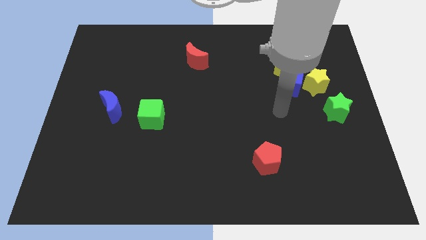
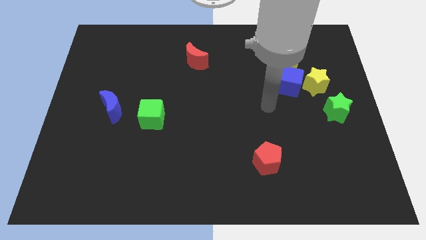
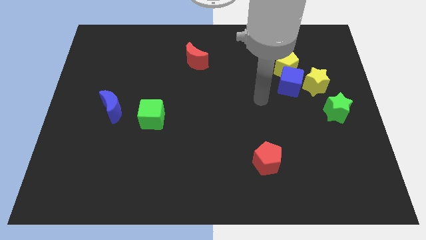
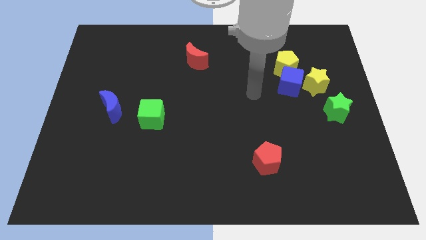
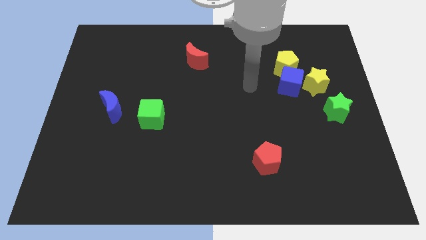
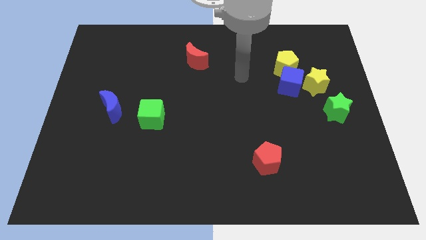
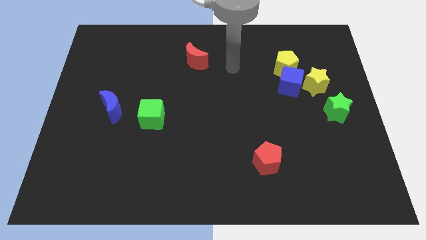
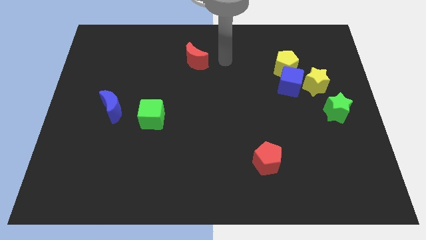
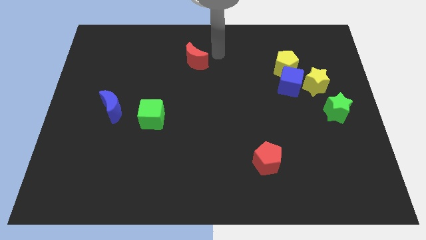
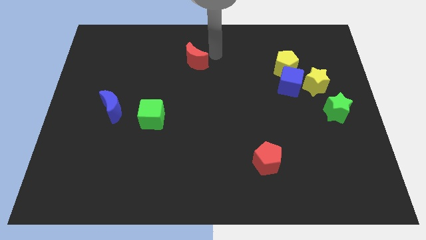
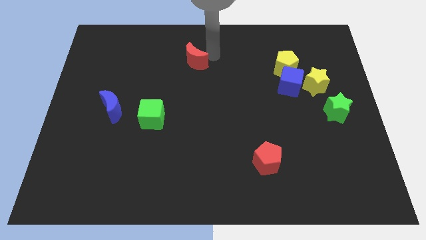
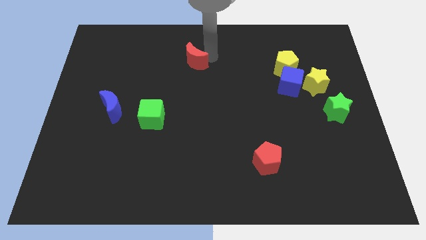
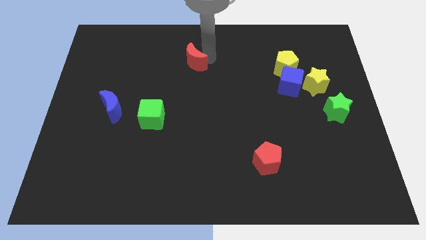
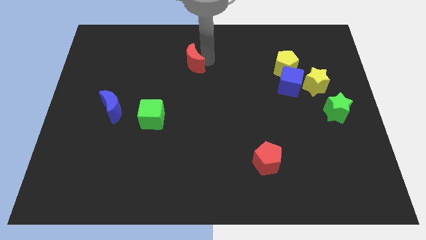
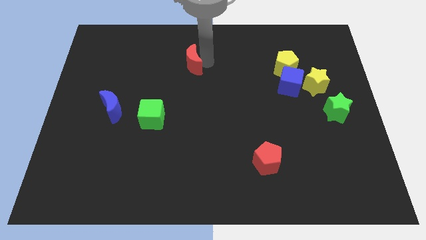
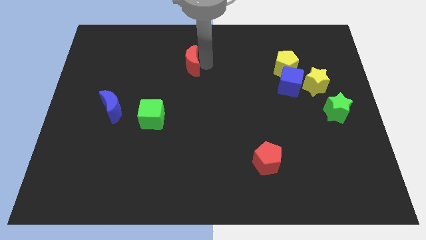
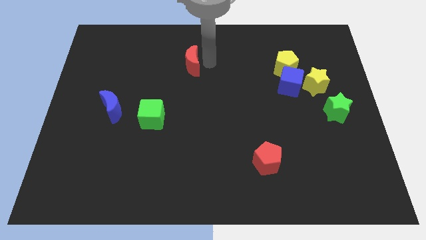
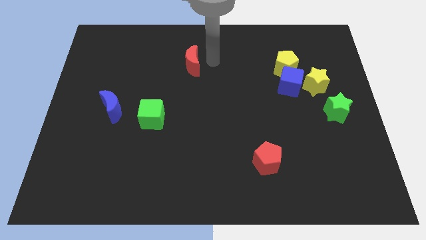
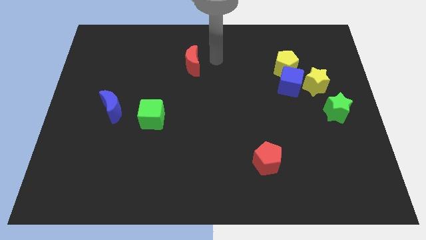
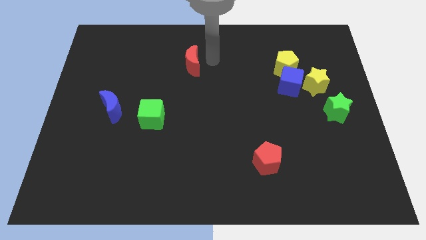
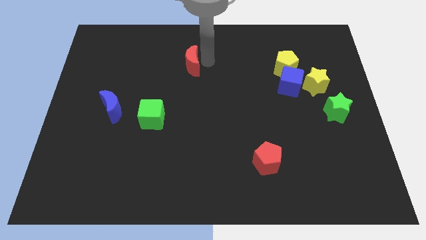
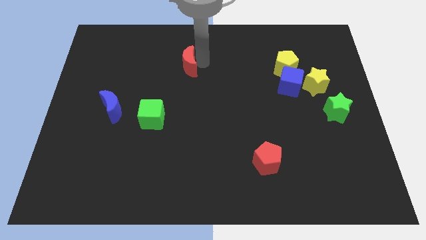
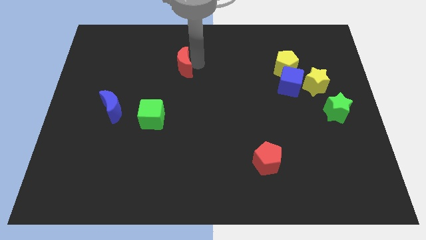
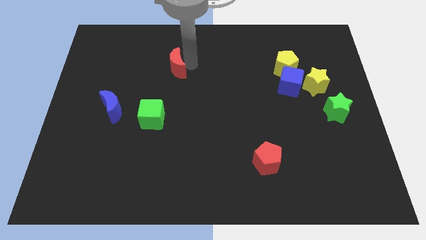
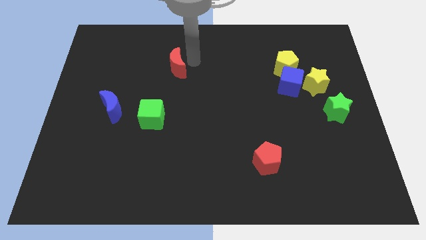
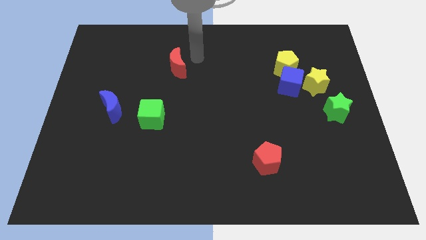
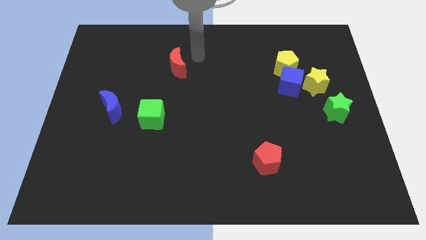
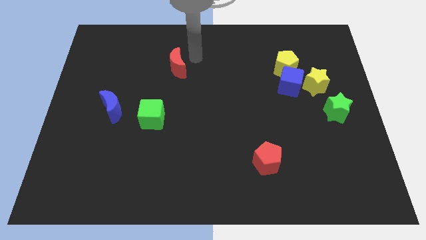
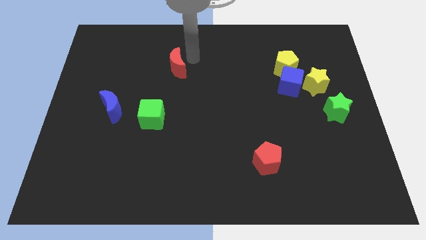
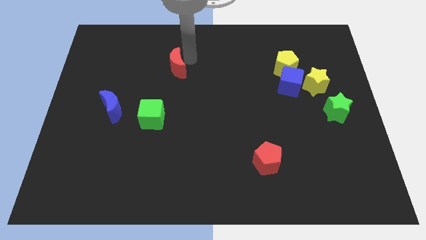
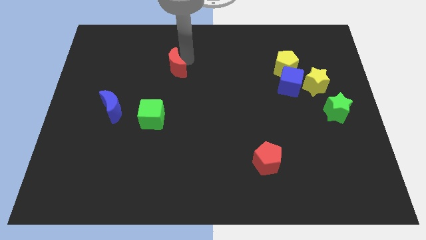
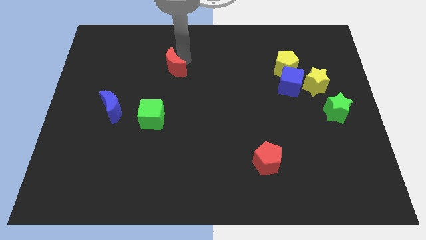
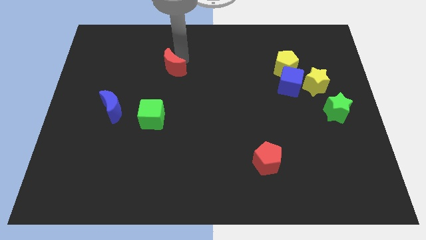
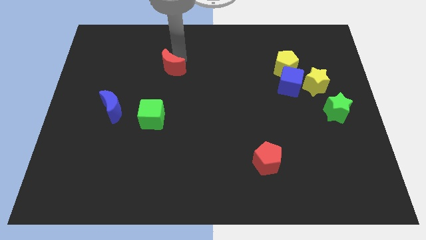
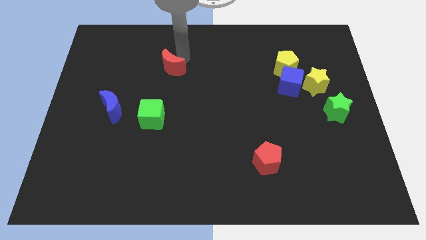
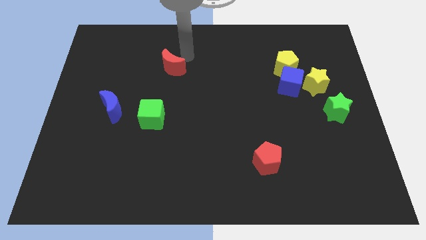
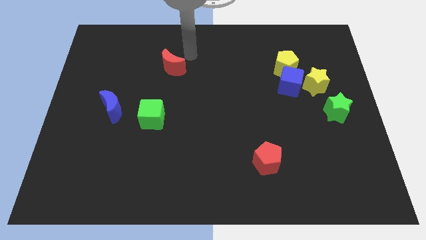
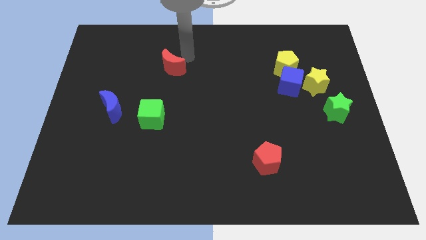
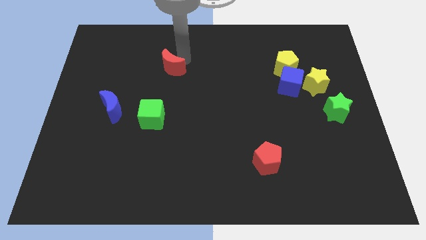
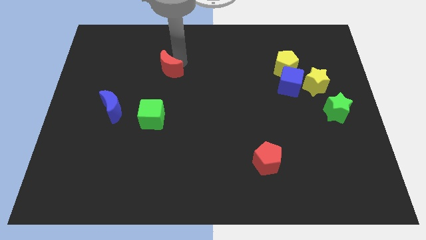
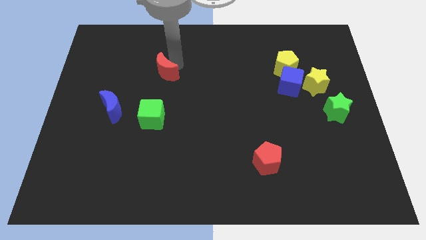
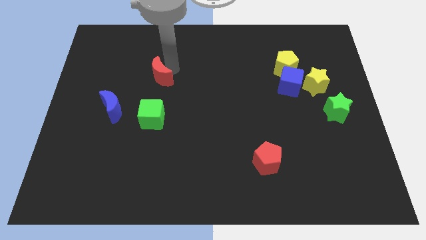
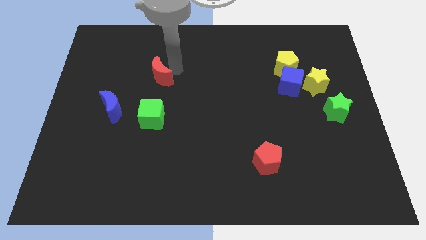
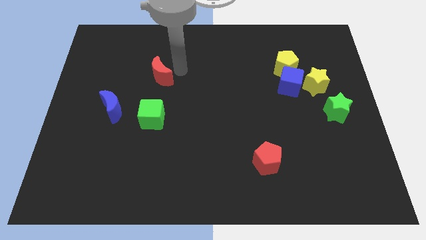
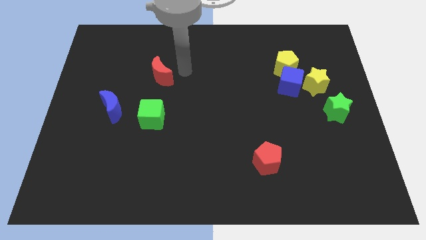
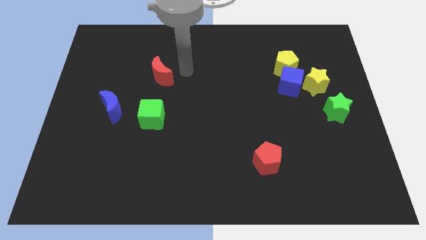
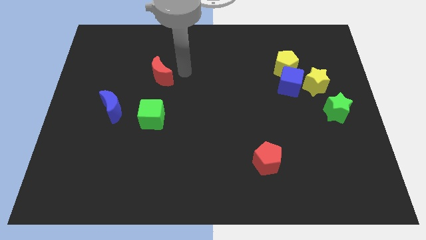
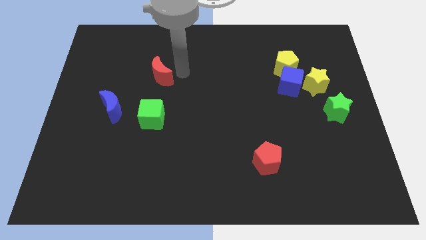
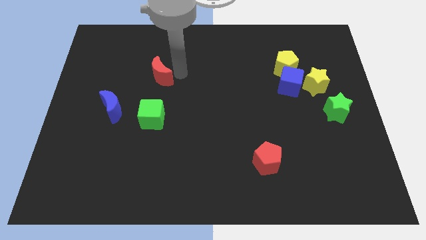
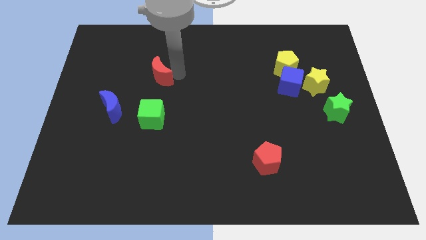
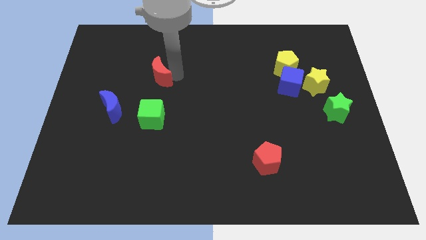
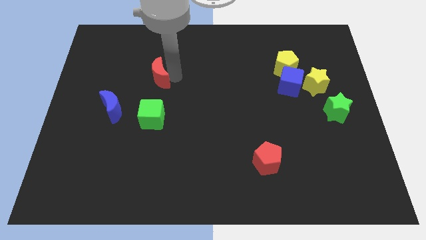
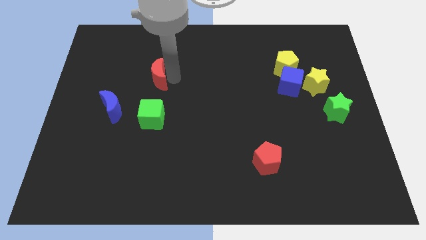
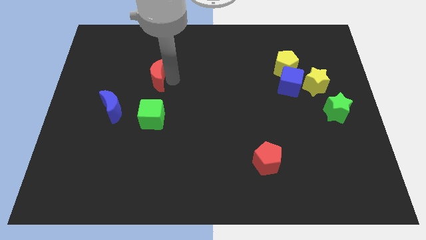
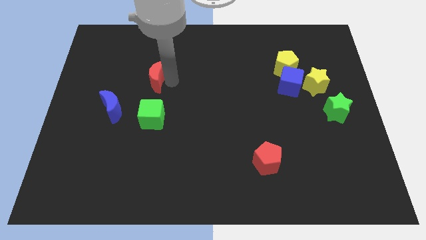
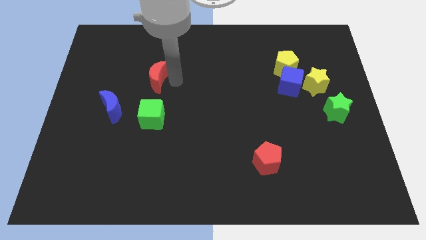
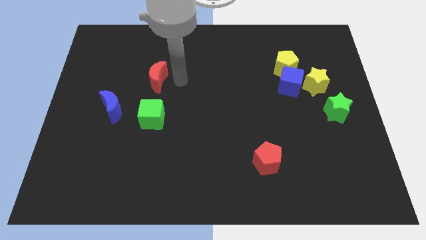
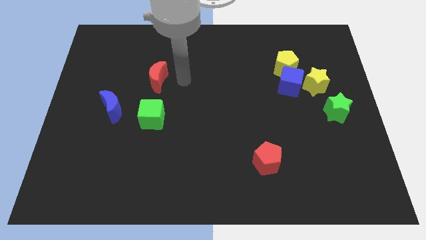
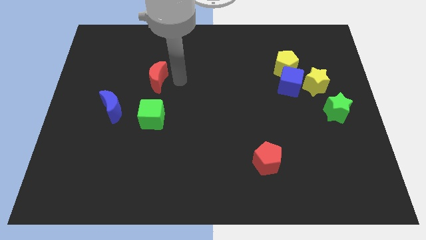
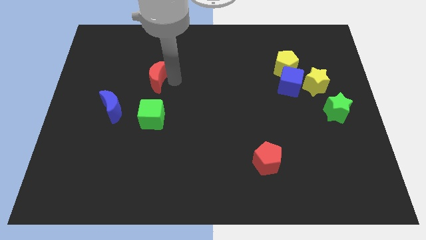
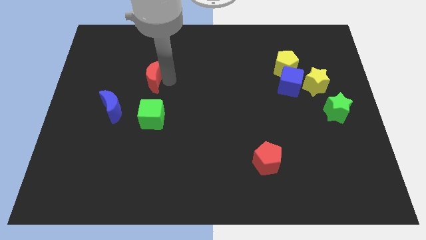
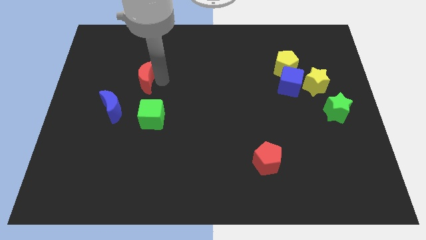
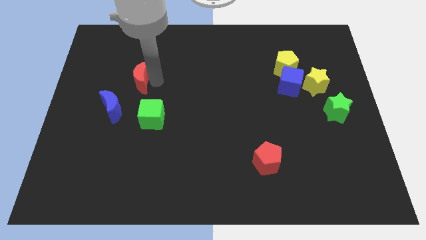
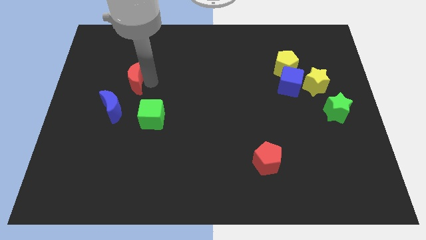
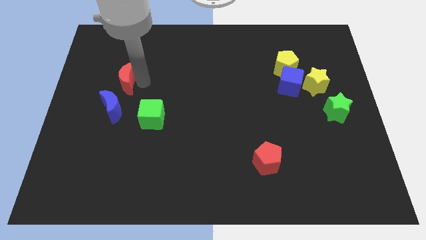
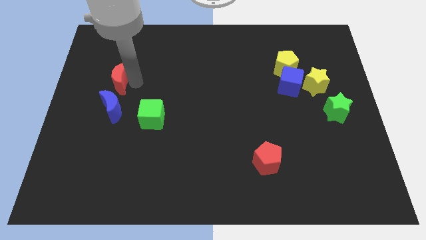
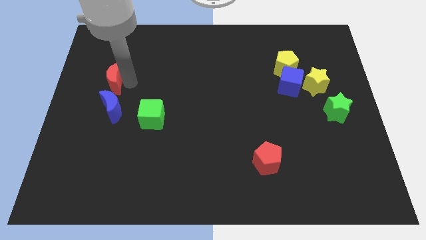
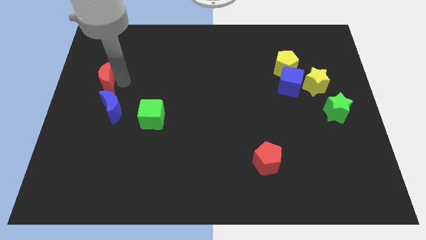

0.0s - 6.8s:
slide the red moon to the left side
